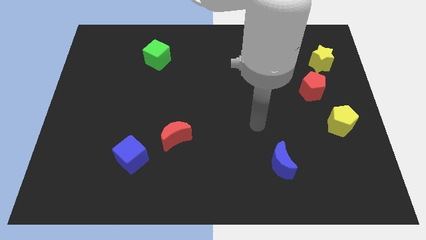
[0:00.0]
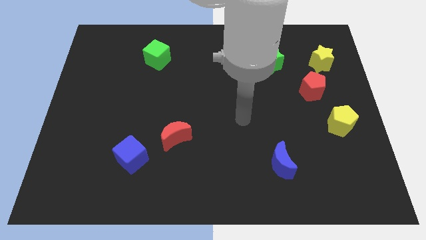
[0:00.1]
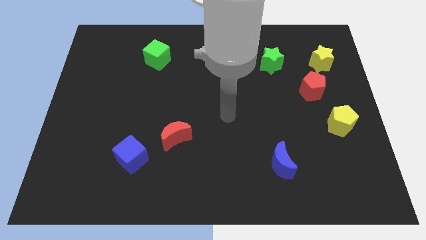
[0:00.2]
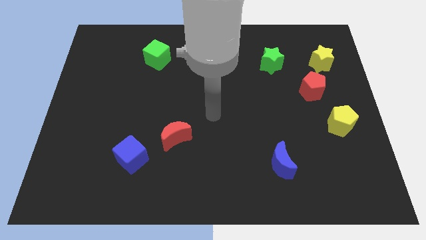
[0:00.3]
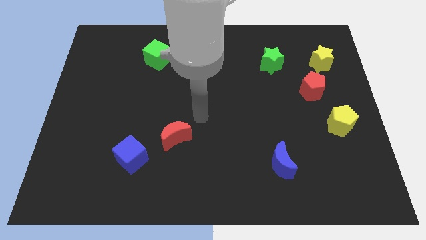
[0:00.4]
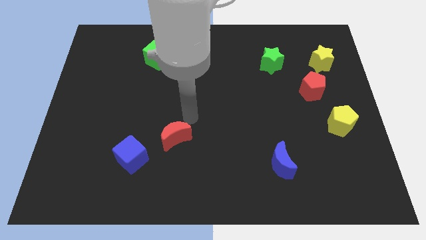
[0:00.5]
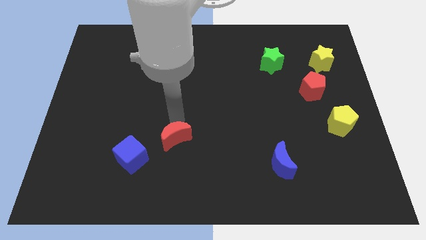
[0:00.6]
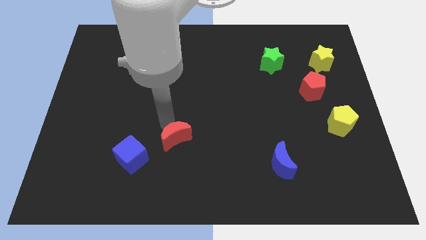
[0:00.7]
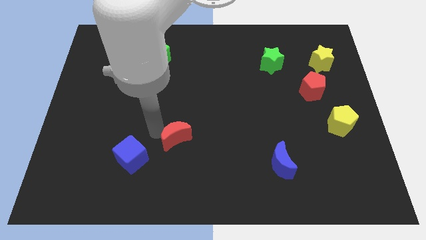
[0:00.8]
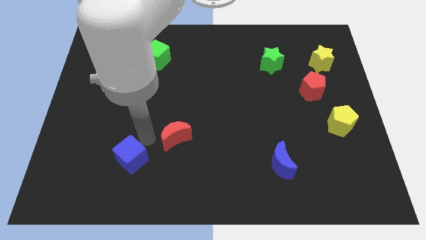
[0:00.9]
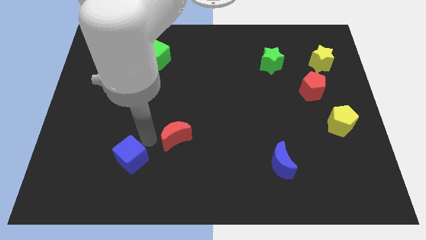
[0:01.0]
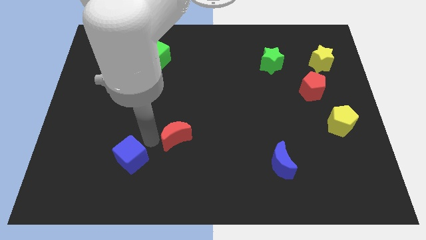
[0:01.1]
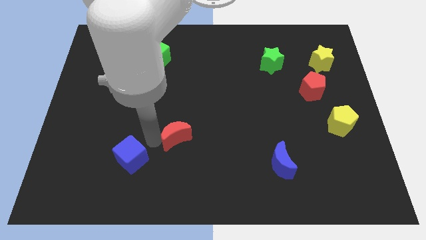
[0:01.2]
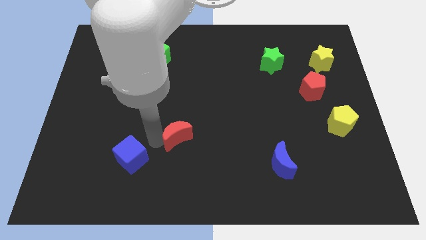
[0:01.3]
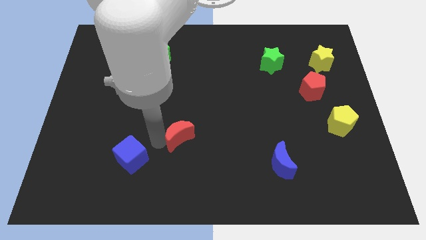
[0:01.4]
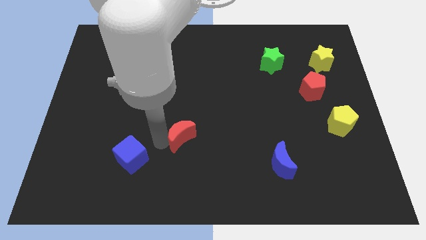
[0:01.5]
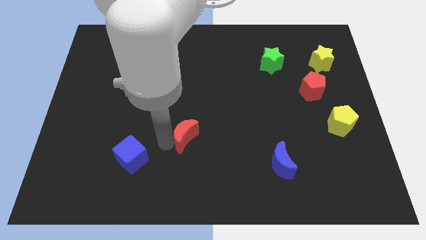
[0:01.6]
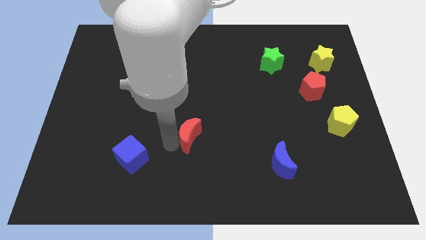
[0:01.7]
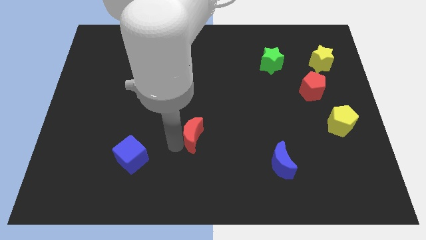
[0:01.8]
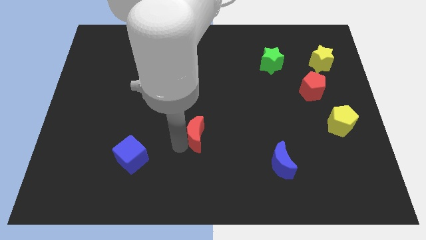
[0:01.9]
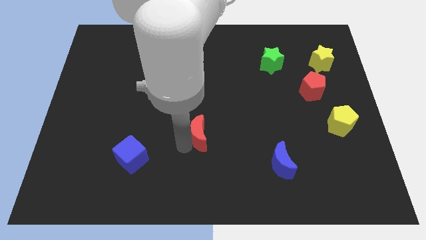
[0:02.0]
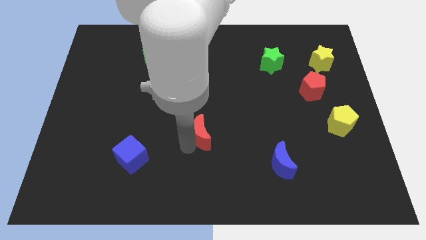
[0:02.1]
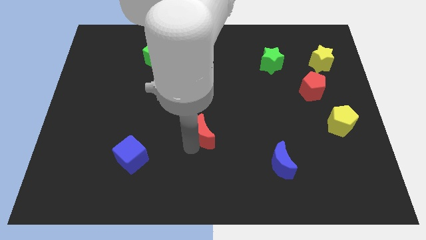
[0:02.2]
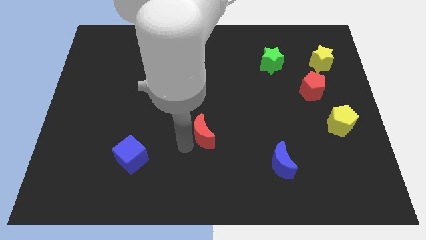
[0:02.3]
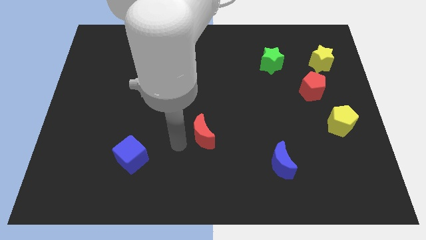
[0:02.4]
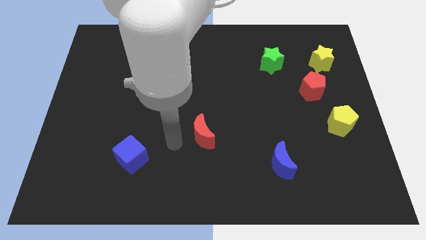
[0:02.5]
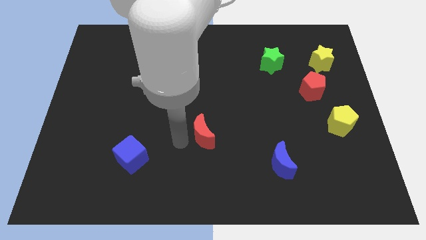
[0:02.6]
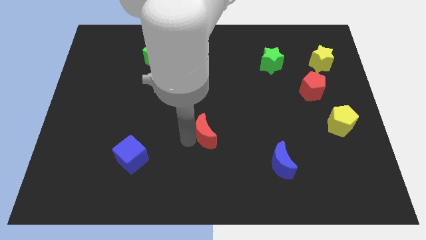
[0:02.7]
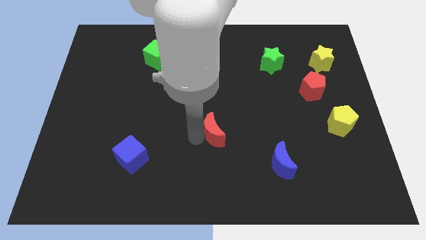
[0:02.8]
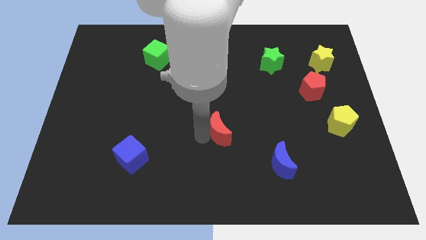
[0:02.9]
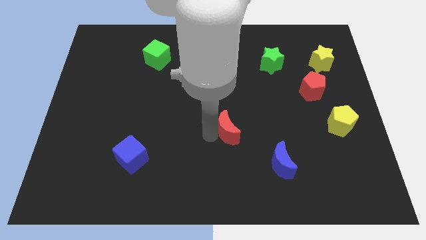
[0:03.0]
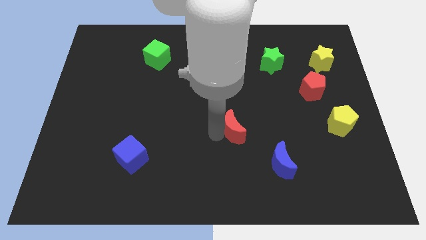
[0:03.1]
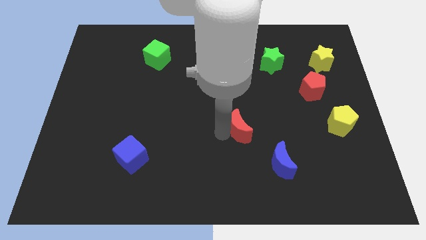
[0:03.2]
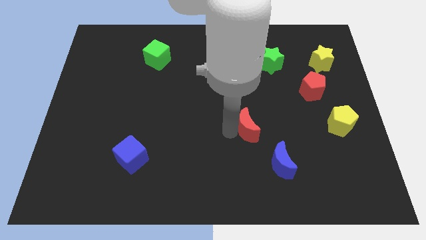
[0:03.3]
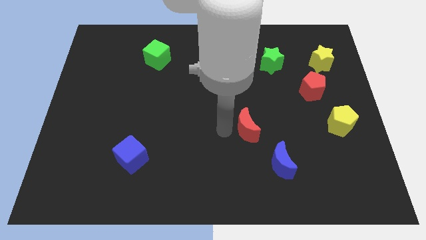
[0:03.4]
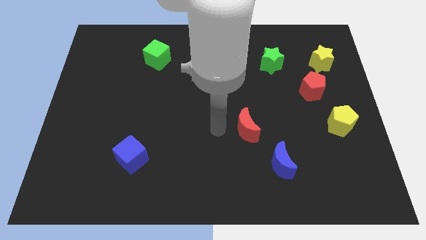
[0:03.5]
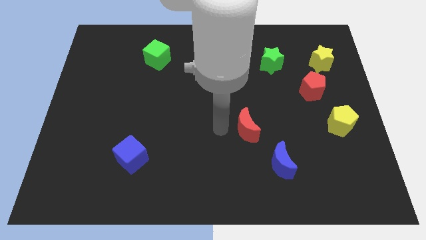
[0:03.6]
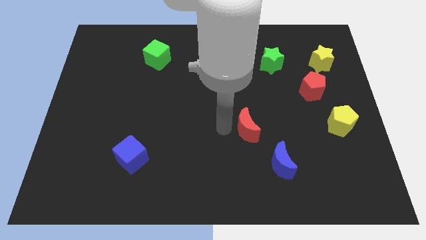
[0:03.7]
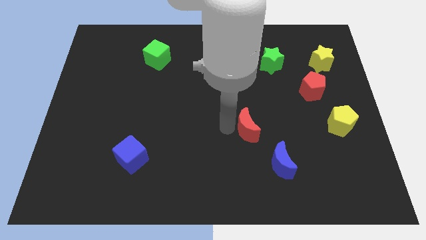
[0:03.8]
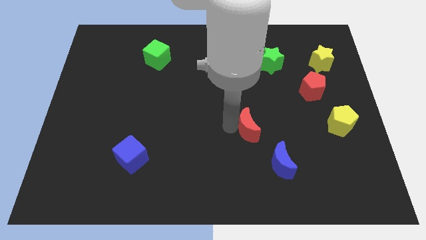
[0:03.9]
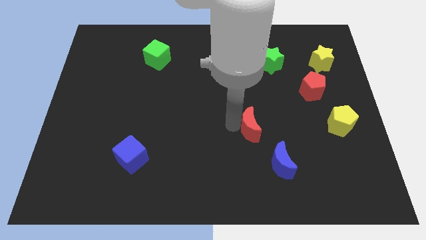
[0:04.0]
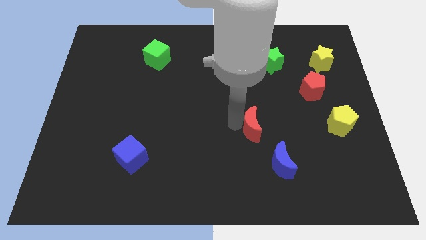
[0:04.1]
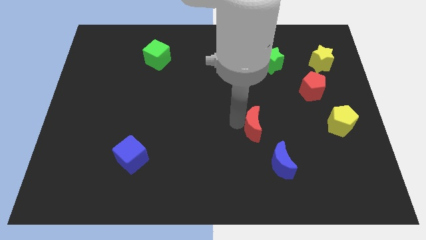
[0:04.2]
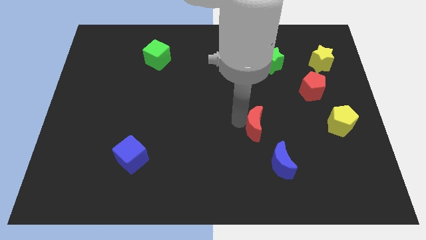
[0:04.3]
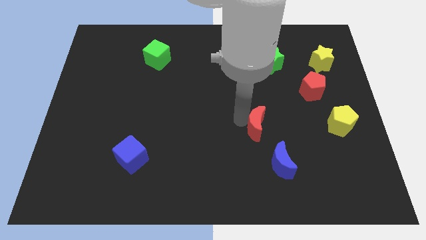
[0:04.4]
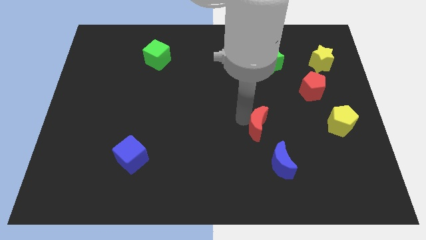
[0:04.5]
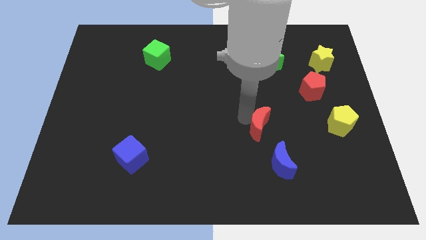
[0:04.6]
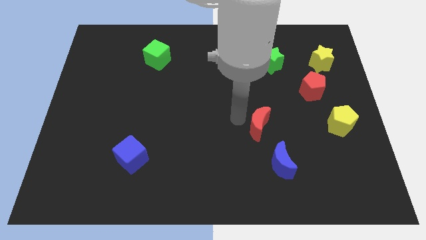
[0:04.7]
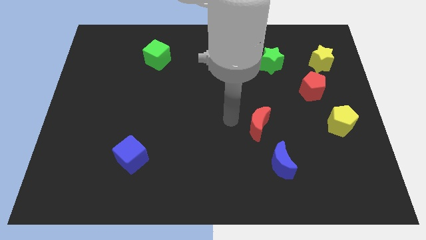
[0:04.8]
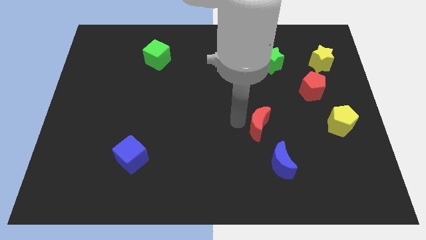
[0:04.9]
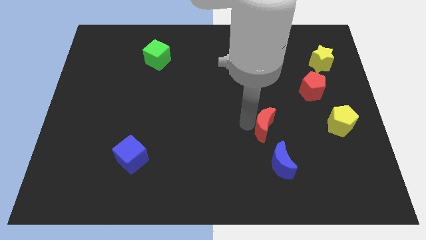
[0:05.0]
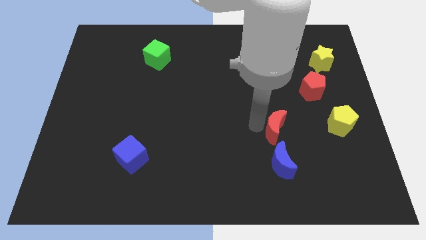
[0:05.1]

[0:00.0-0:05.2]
push the red moon to the right

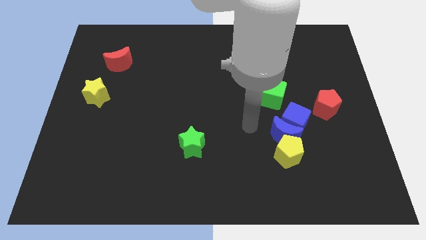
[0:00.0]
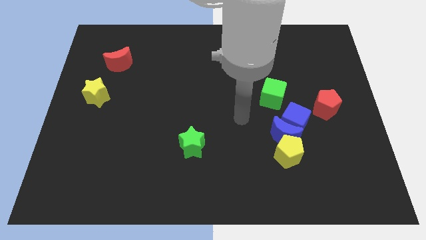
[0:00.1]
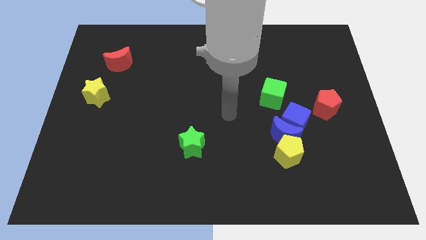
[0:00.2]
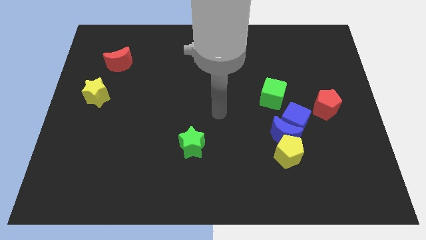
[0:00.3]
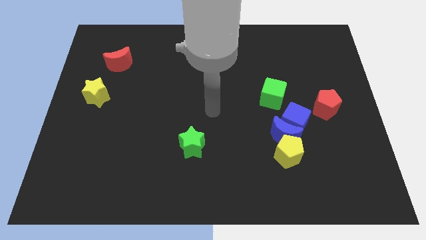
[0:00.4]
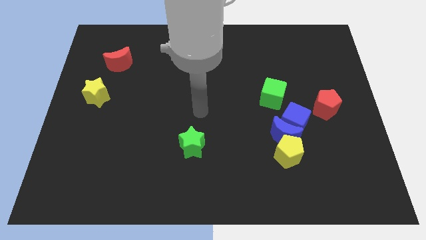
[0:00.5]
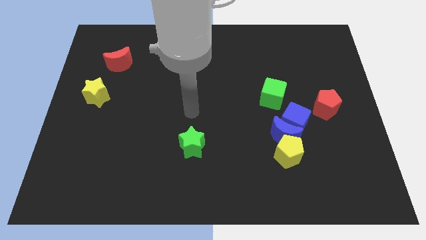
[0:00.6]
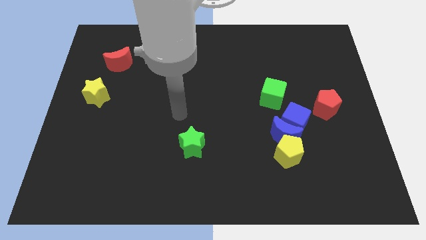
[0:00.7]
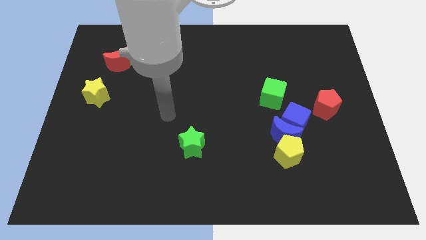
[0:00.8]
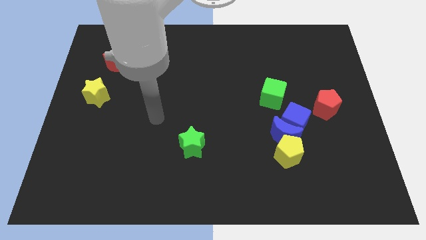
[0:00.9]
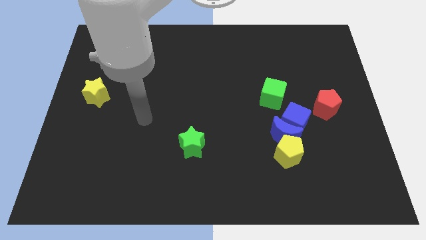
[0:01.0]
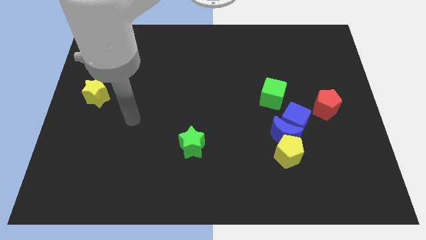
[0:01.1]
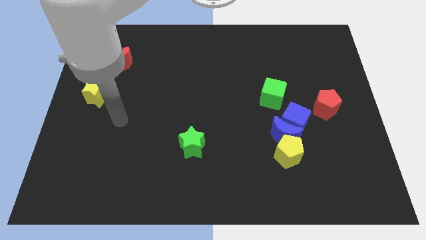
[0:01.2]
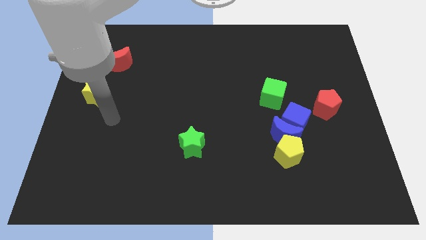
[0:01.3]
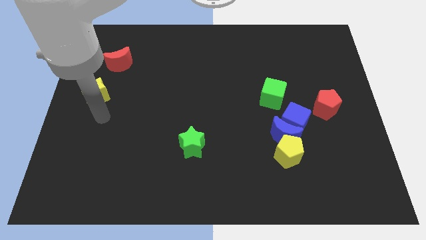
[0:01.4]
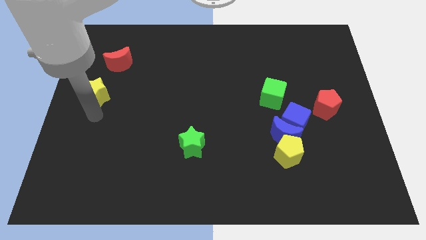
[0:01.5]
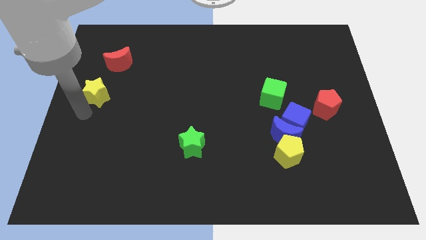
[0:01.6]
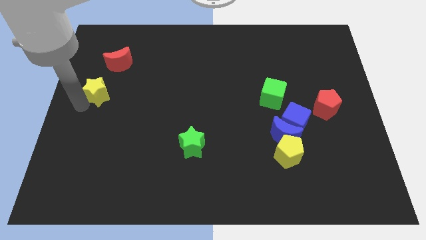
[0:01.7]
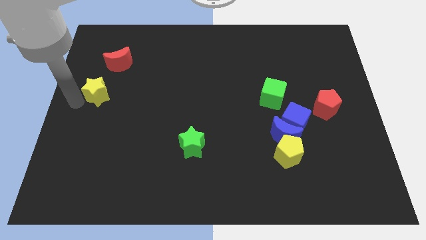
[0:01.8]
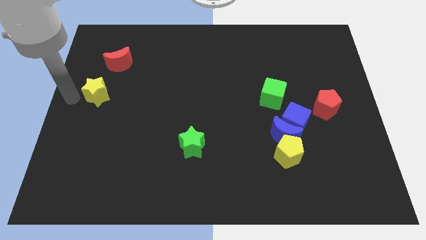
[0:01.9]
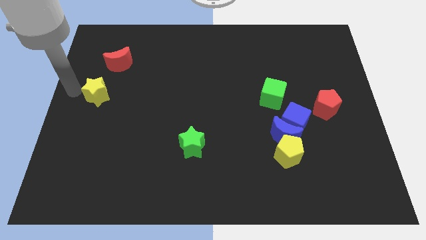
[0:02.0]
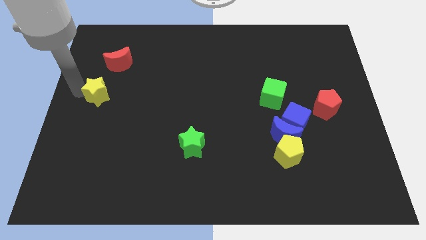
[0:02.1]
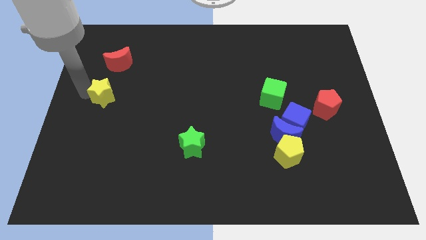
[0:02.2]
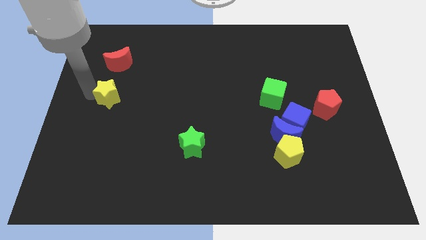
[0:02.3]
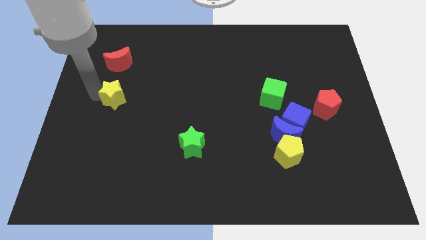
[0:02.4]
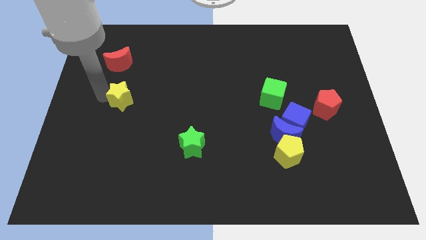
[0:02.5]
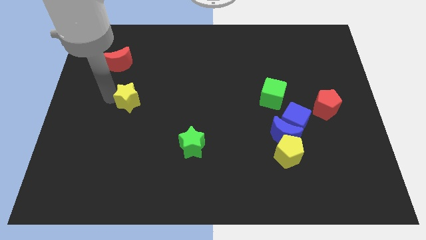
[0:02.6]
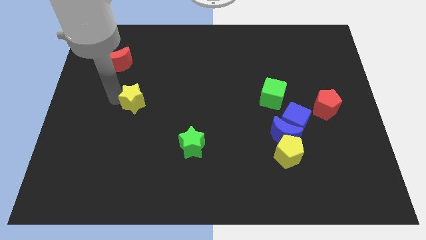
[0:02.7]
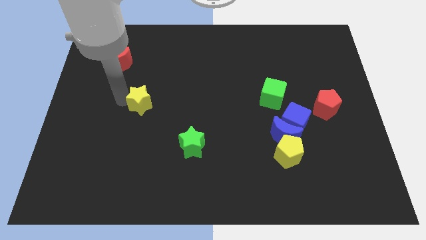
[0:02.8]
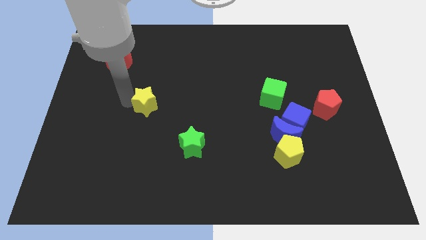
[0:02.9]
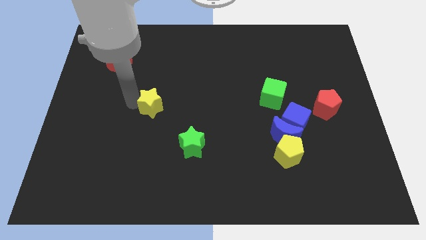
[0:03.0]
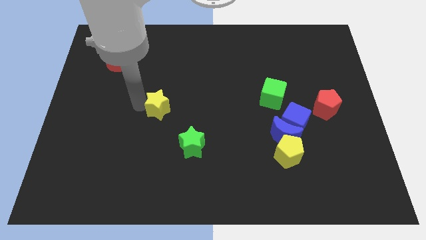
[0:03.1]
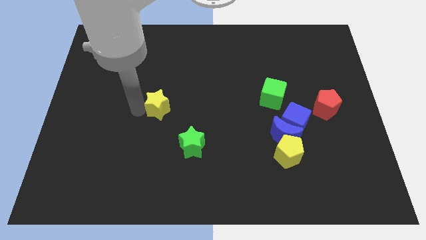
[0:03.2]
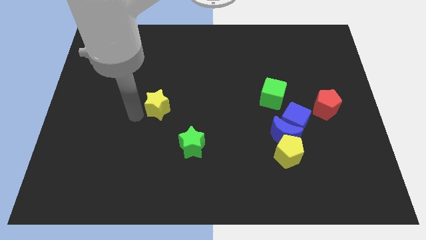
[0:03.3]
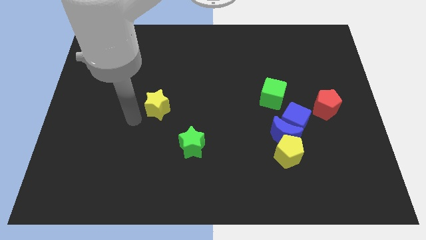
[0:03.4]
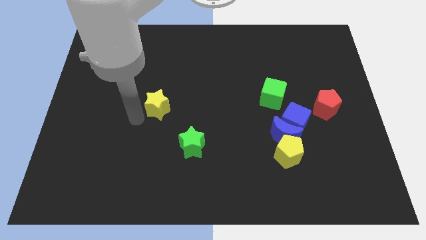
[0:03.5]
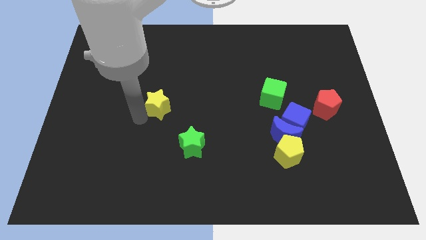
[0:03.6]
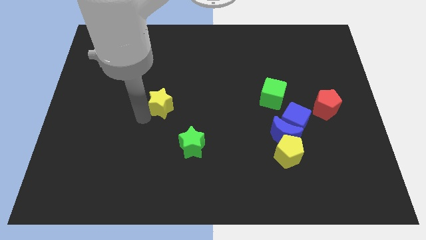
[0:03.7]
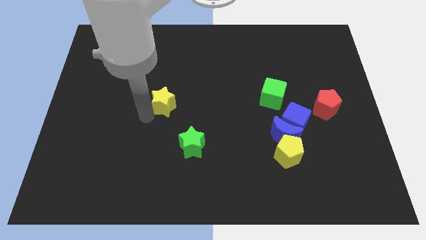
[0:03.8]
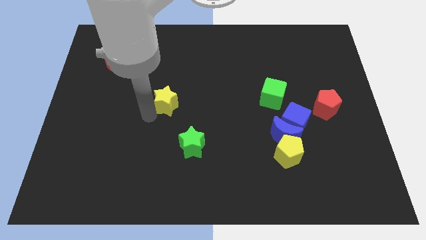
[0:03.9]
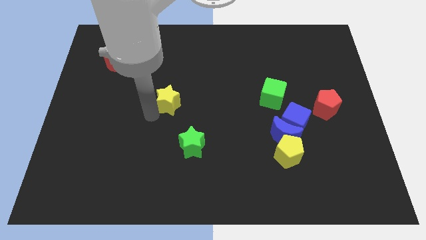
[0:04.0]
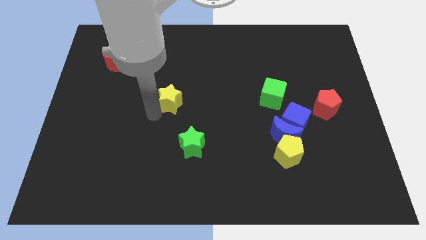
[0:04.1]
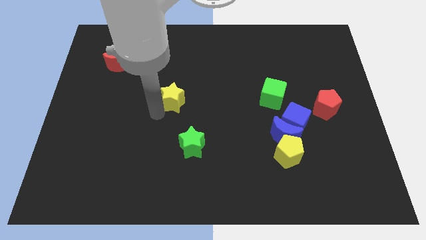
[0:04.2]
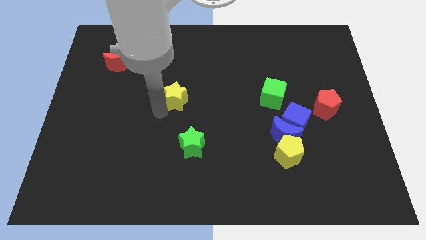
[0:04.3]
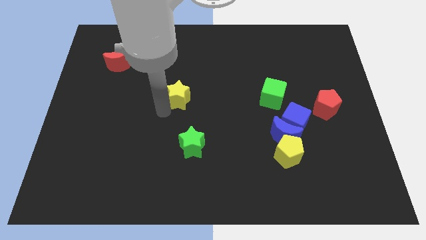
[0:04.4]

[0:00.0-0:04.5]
push the yellow star to the right
